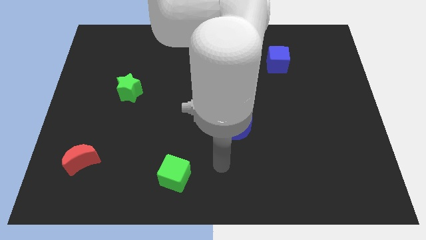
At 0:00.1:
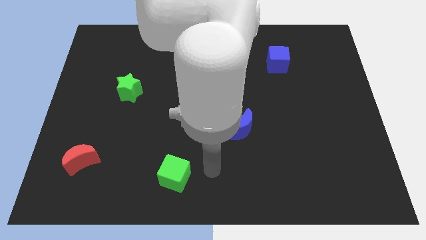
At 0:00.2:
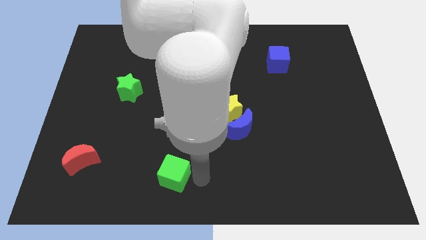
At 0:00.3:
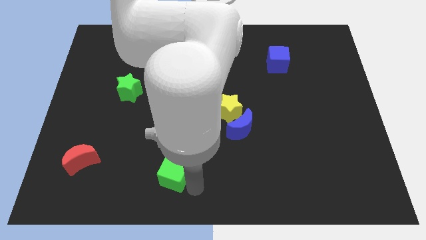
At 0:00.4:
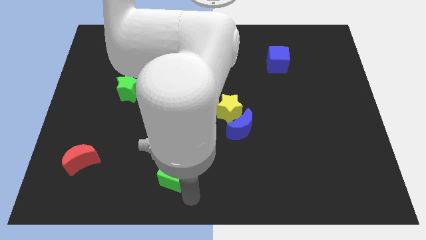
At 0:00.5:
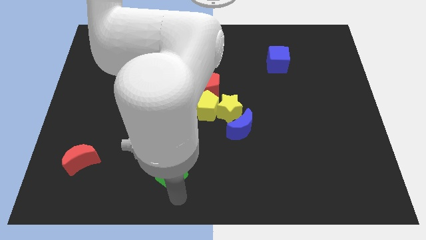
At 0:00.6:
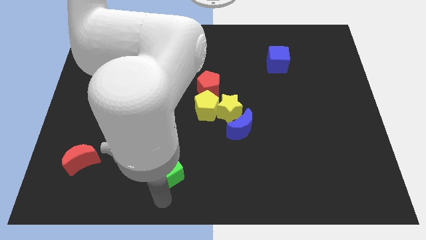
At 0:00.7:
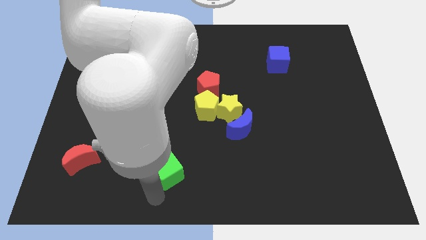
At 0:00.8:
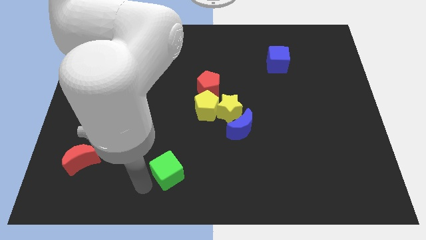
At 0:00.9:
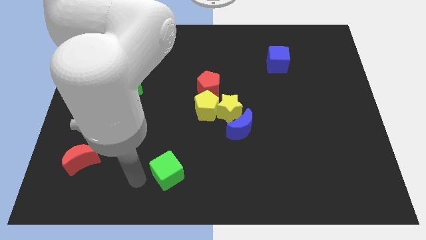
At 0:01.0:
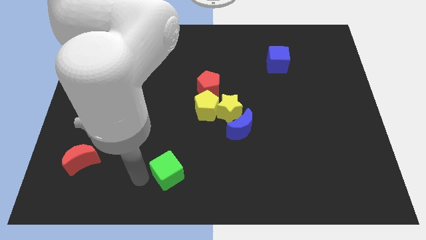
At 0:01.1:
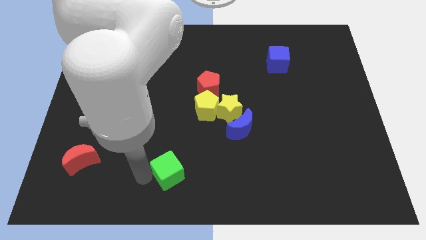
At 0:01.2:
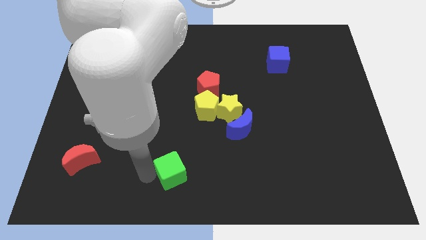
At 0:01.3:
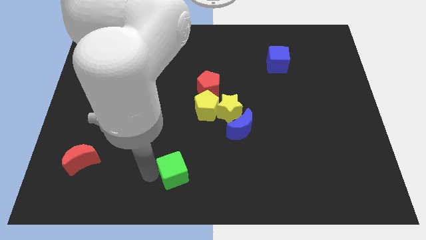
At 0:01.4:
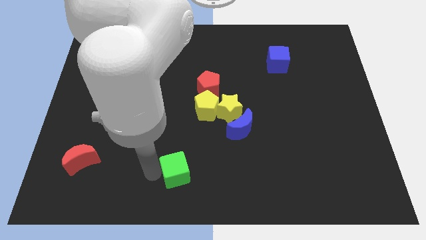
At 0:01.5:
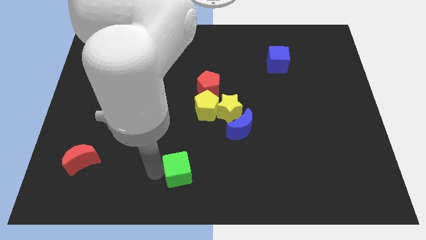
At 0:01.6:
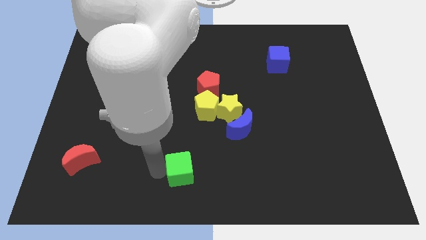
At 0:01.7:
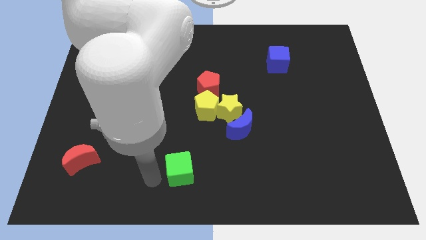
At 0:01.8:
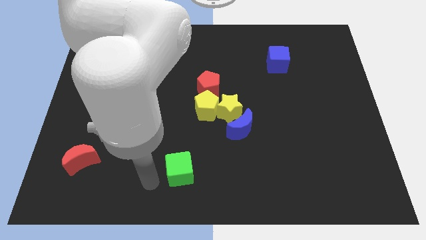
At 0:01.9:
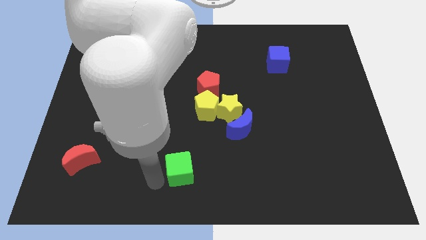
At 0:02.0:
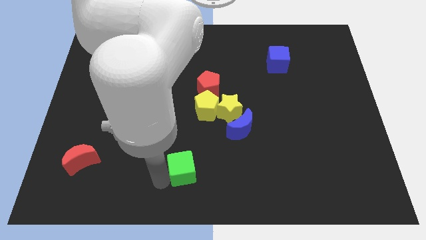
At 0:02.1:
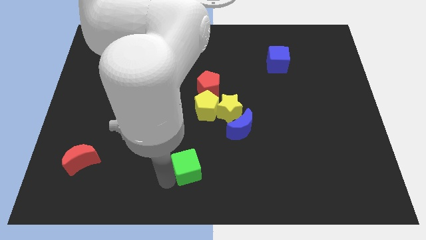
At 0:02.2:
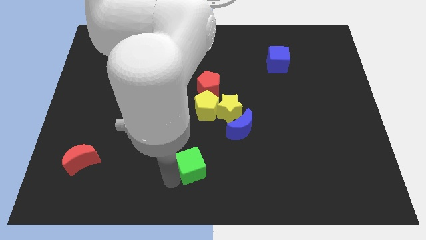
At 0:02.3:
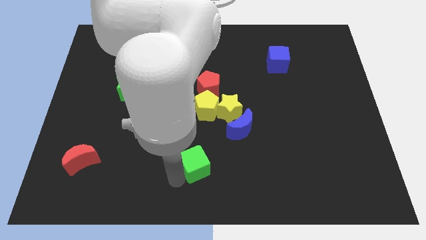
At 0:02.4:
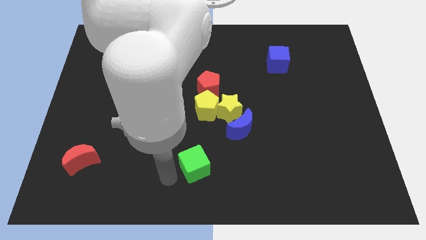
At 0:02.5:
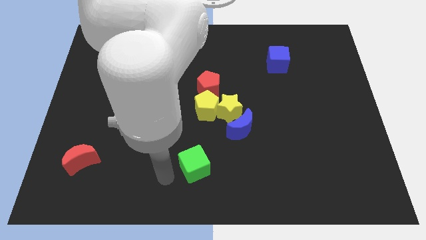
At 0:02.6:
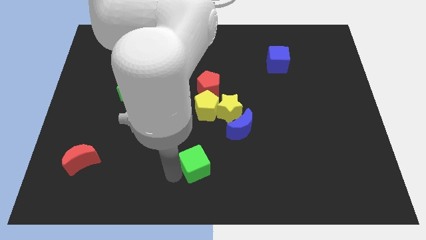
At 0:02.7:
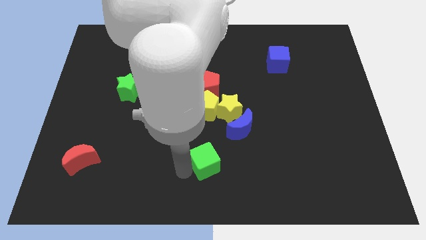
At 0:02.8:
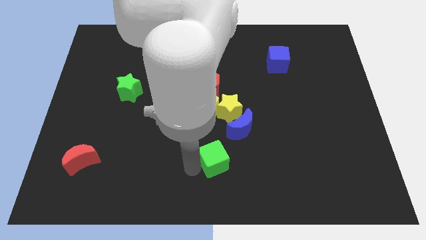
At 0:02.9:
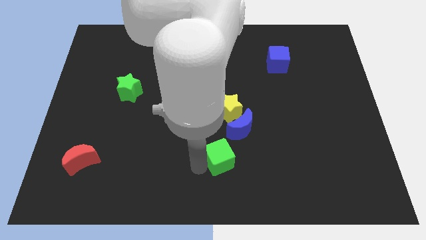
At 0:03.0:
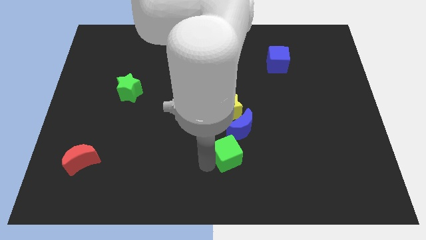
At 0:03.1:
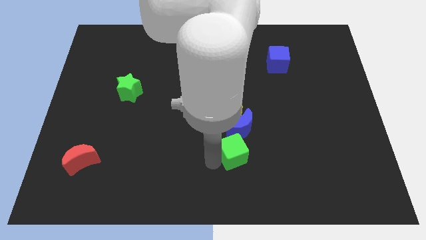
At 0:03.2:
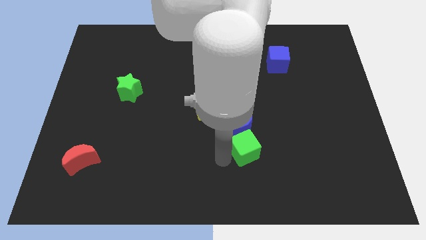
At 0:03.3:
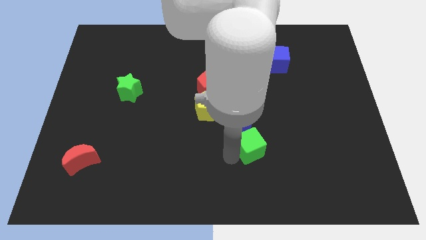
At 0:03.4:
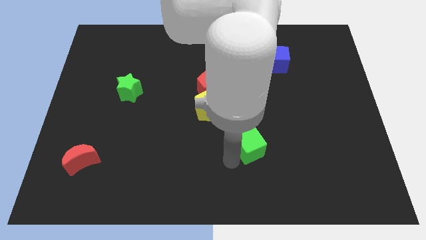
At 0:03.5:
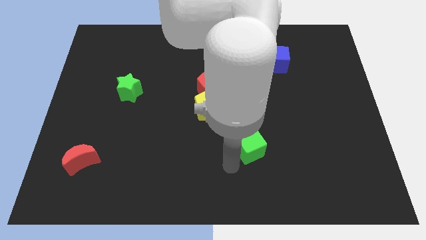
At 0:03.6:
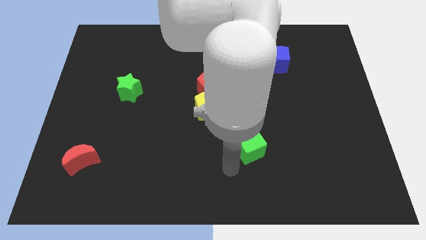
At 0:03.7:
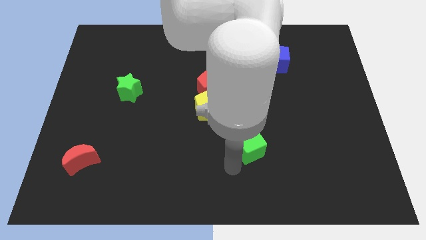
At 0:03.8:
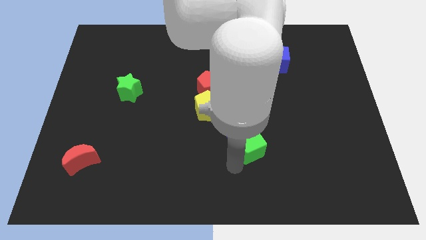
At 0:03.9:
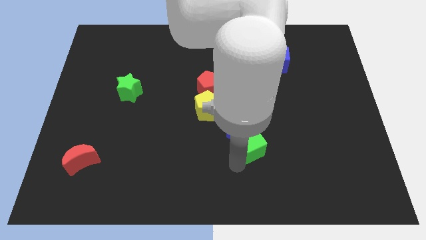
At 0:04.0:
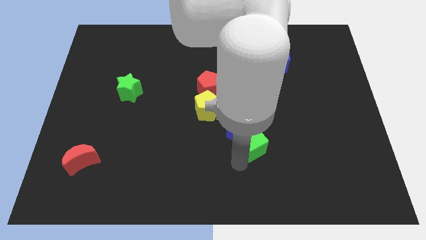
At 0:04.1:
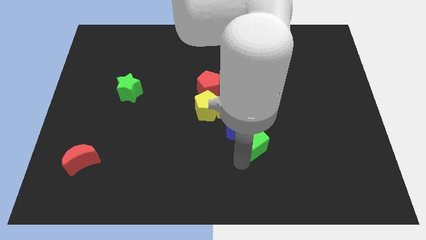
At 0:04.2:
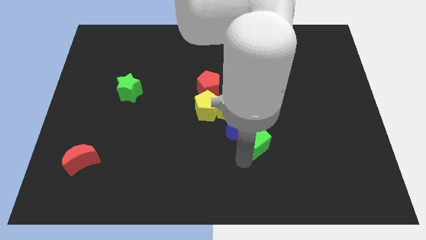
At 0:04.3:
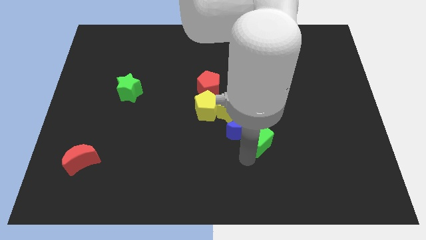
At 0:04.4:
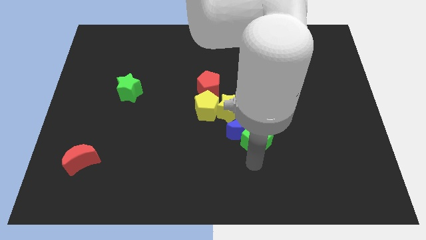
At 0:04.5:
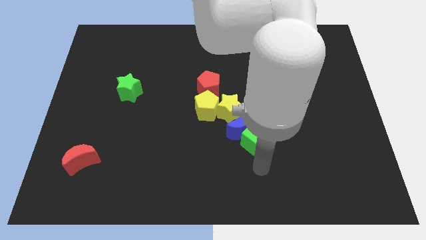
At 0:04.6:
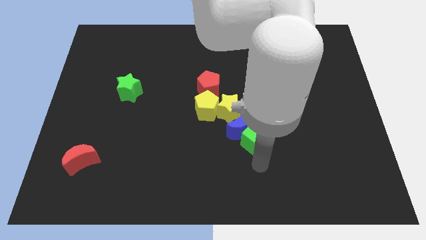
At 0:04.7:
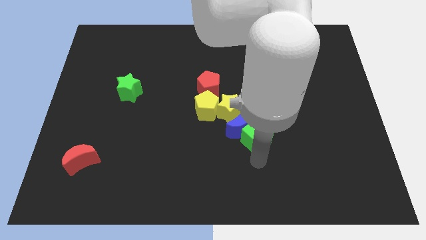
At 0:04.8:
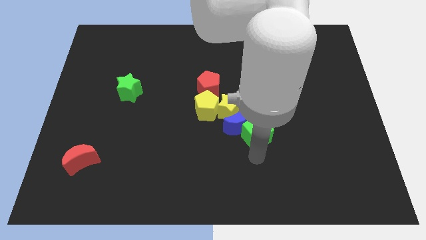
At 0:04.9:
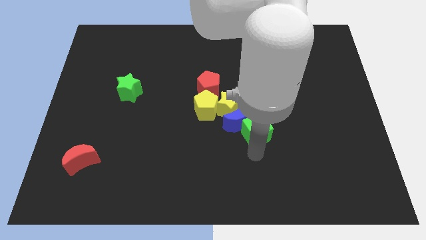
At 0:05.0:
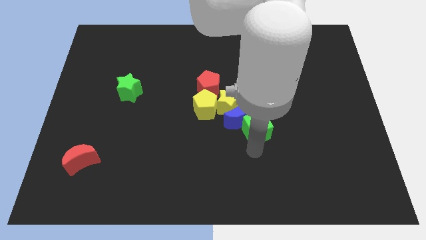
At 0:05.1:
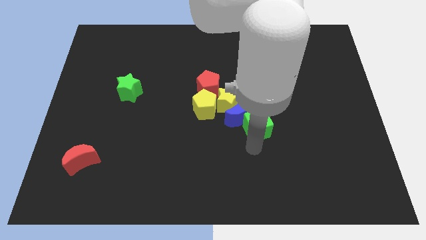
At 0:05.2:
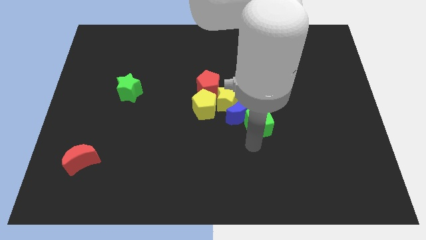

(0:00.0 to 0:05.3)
slide the green cube right of the yellow pentagon

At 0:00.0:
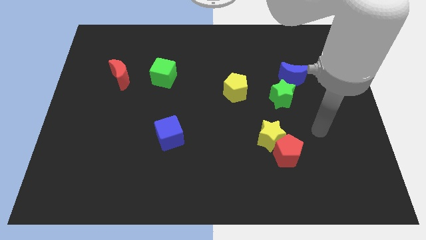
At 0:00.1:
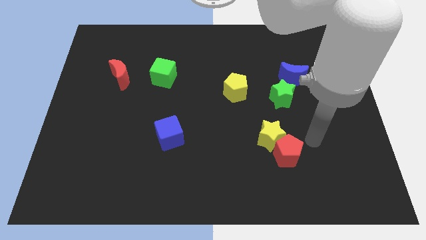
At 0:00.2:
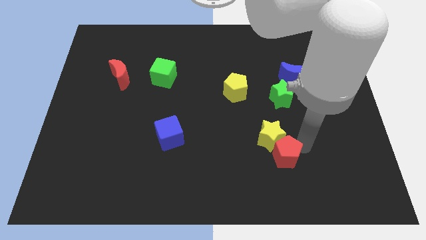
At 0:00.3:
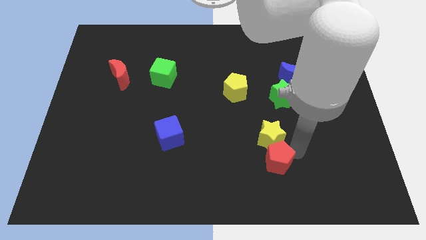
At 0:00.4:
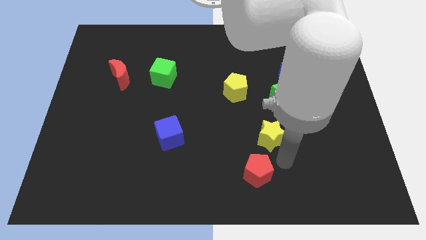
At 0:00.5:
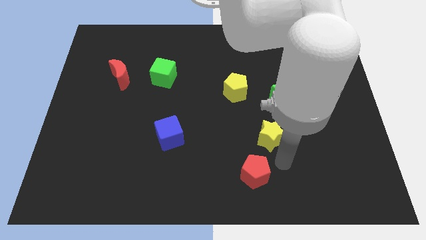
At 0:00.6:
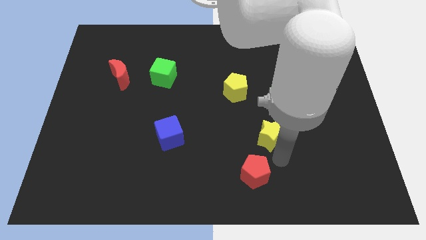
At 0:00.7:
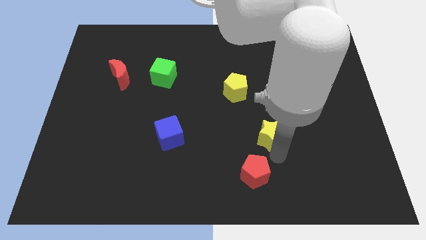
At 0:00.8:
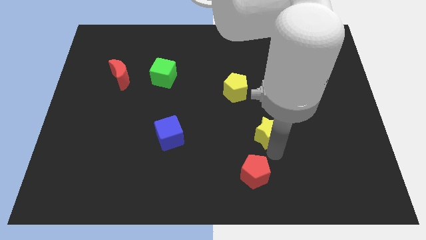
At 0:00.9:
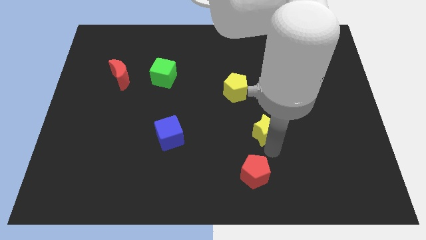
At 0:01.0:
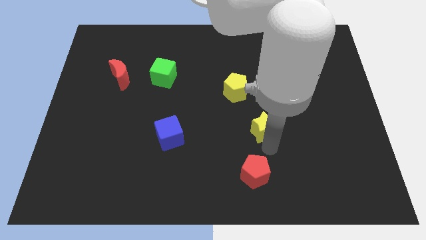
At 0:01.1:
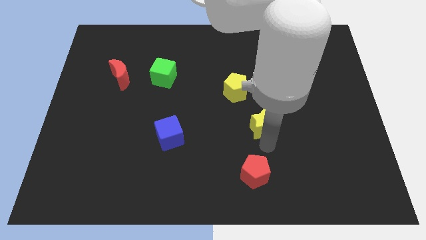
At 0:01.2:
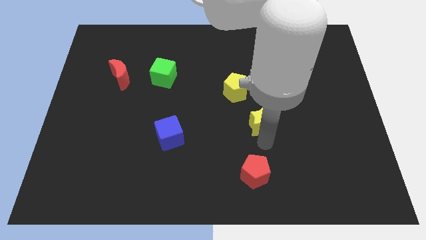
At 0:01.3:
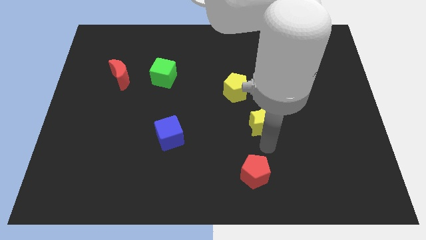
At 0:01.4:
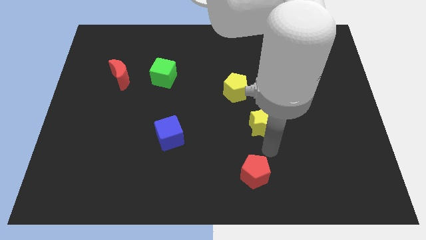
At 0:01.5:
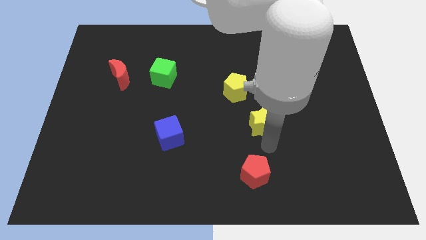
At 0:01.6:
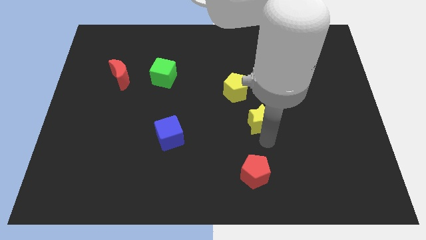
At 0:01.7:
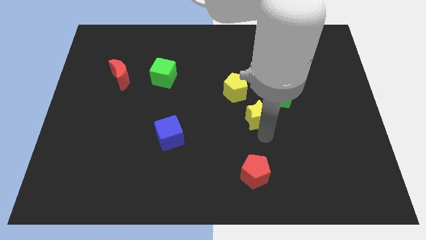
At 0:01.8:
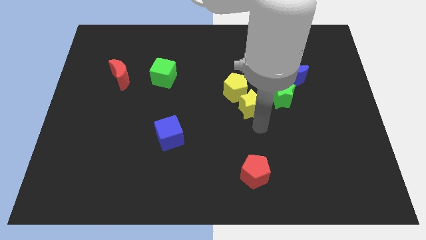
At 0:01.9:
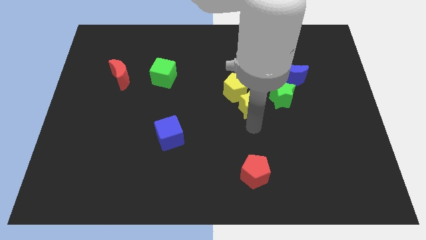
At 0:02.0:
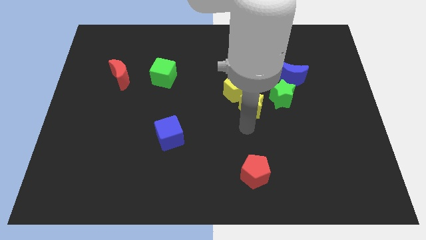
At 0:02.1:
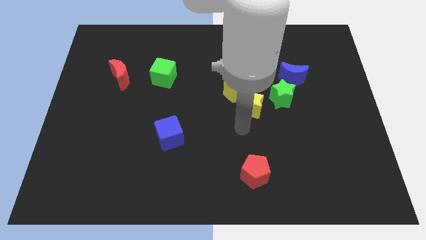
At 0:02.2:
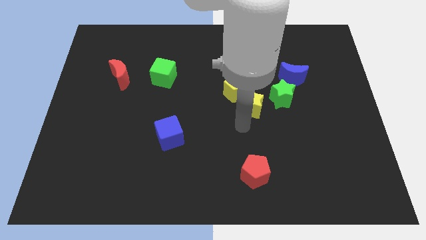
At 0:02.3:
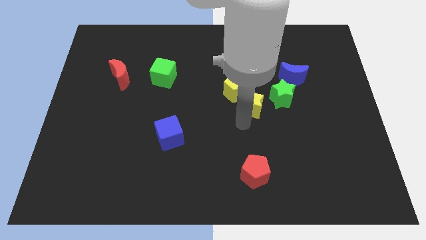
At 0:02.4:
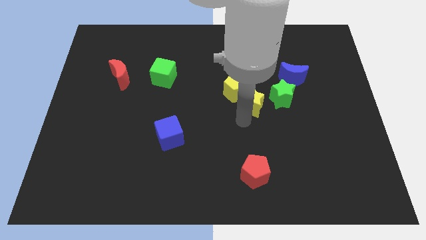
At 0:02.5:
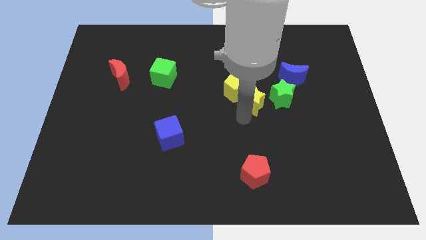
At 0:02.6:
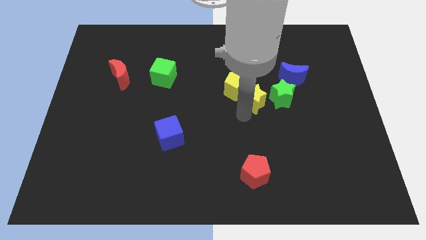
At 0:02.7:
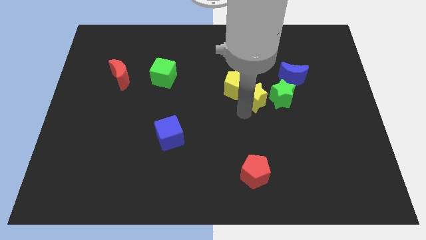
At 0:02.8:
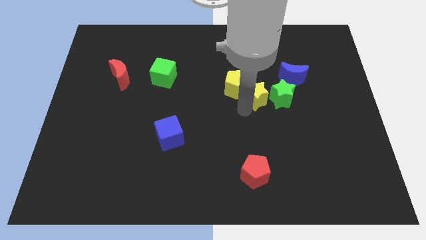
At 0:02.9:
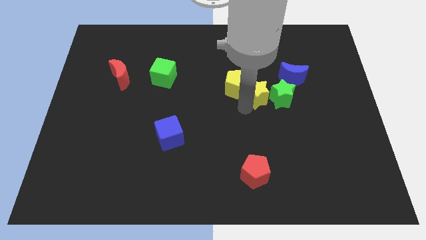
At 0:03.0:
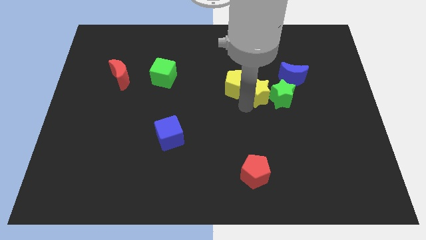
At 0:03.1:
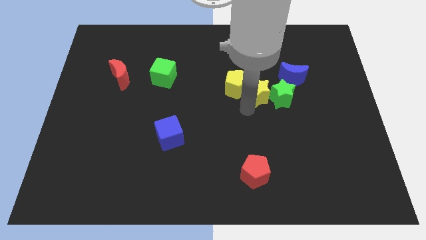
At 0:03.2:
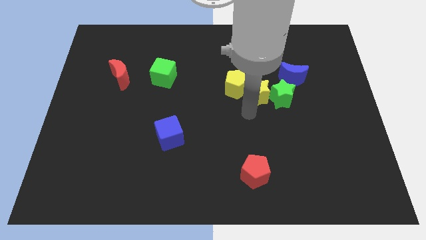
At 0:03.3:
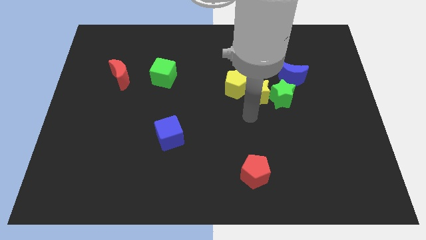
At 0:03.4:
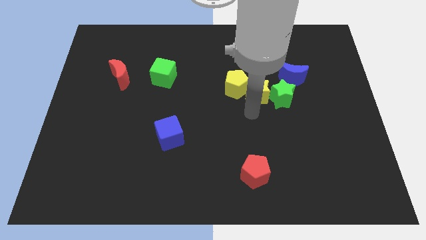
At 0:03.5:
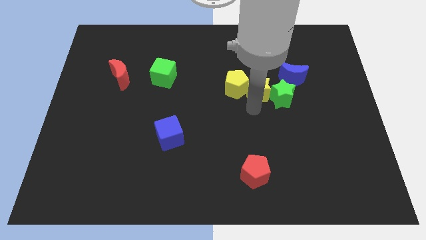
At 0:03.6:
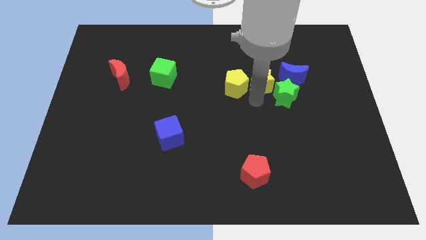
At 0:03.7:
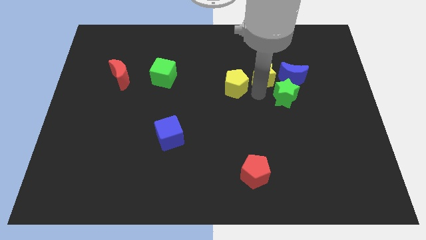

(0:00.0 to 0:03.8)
push the yellow star to the top of the green star
